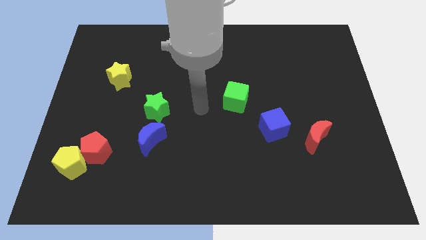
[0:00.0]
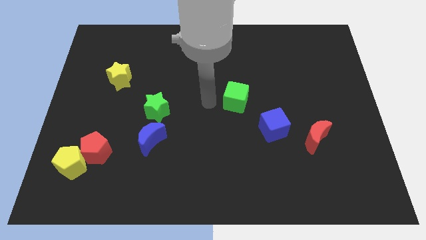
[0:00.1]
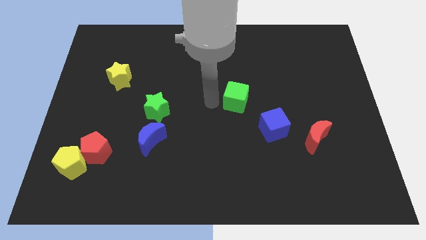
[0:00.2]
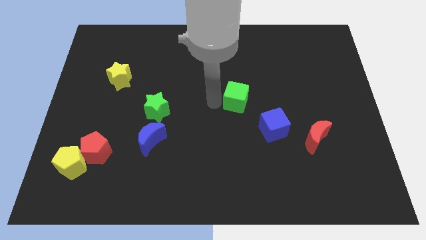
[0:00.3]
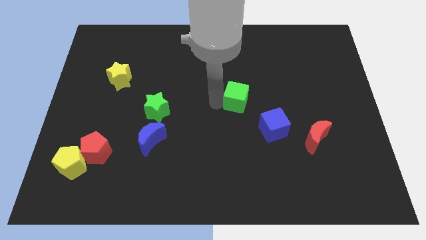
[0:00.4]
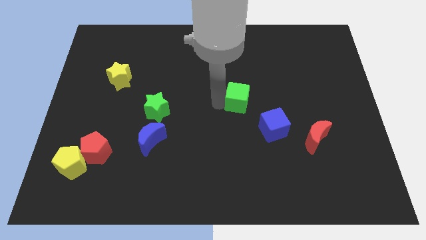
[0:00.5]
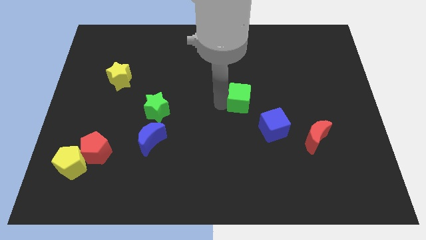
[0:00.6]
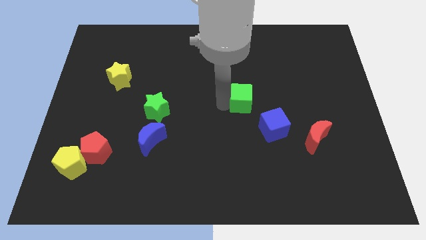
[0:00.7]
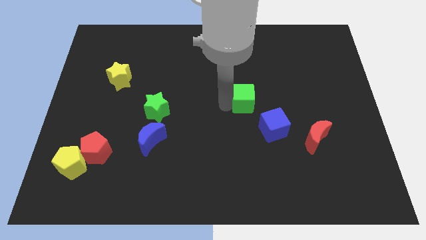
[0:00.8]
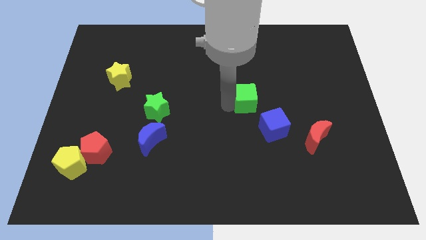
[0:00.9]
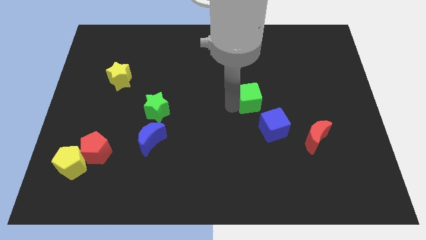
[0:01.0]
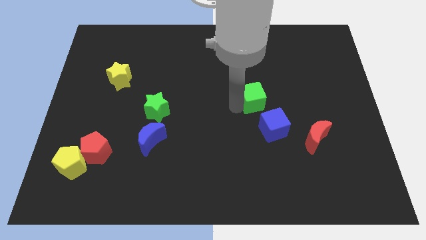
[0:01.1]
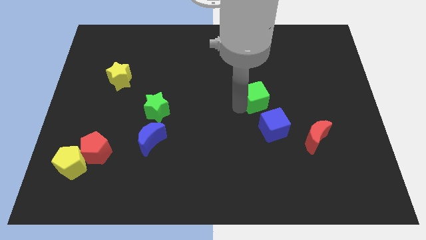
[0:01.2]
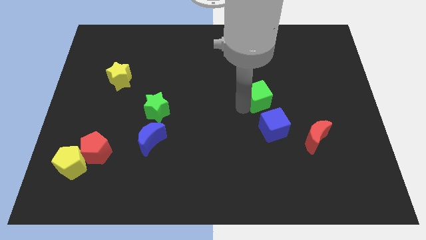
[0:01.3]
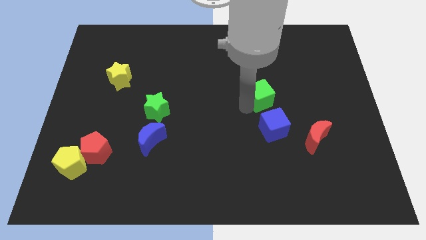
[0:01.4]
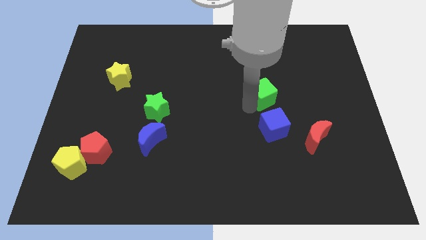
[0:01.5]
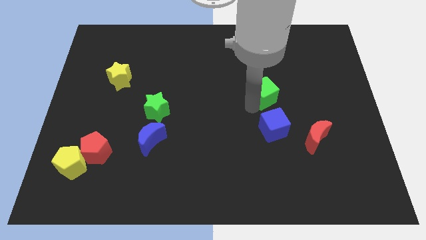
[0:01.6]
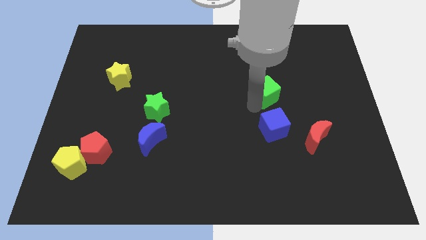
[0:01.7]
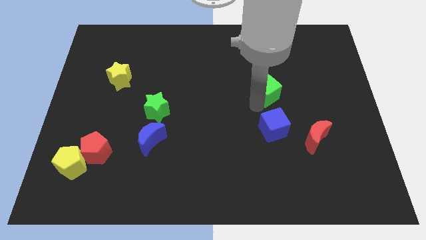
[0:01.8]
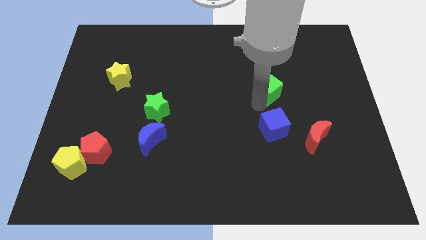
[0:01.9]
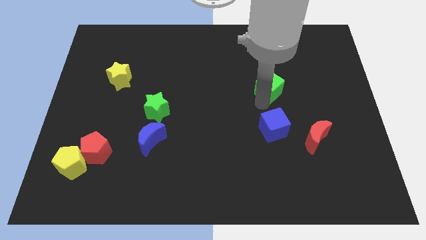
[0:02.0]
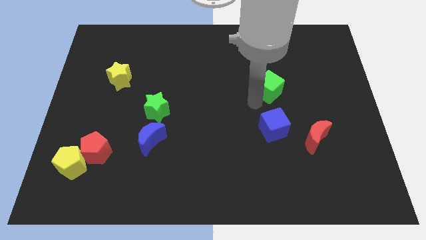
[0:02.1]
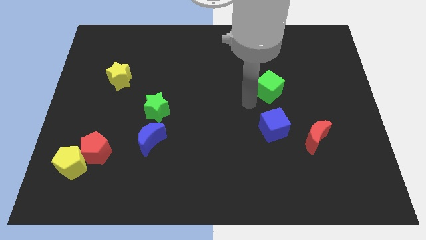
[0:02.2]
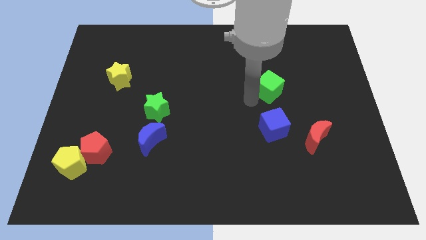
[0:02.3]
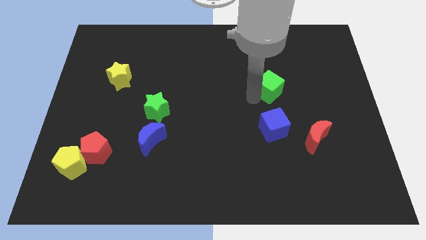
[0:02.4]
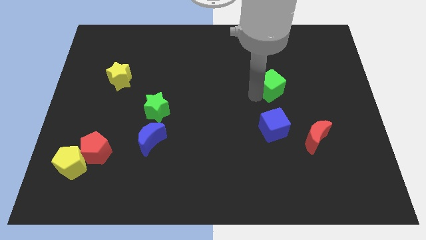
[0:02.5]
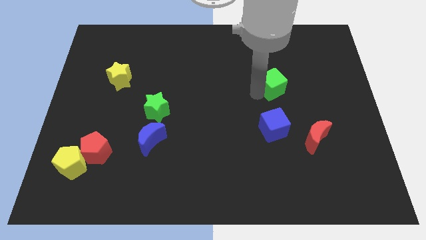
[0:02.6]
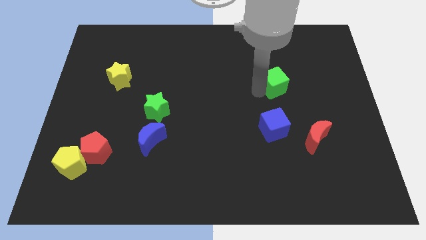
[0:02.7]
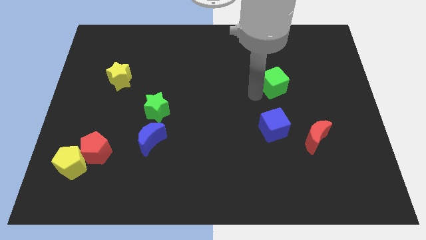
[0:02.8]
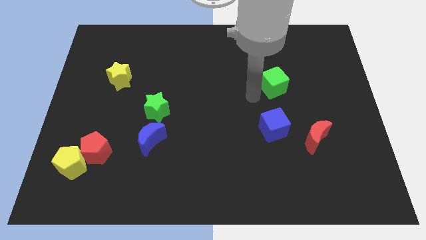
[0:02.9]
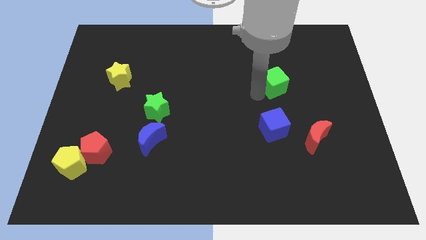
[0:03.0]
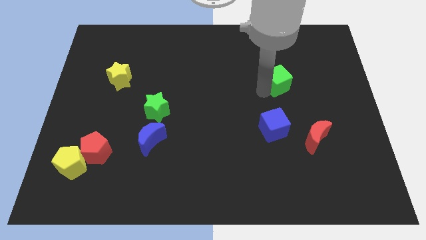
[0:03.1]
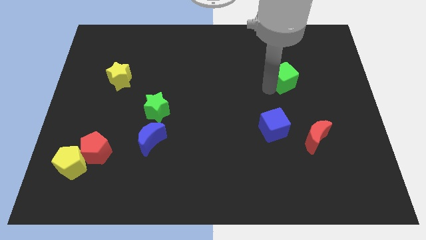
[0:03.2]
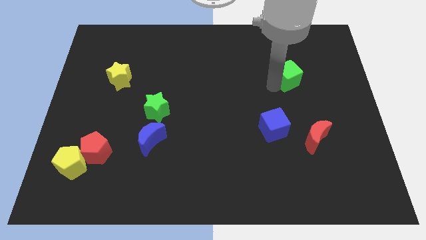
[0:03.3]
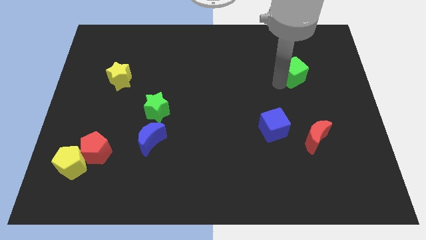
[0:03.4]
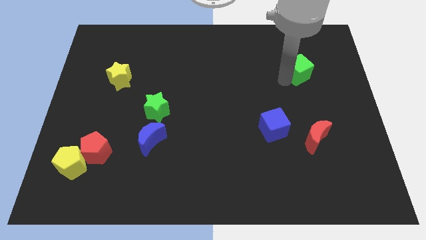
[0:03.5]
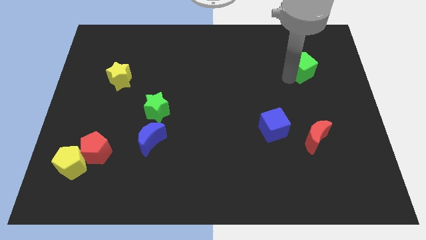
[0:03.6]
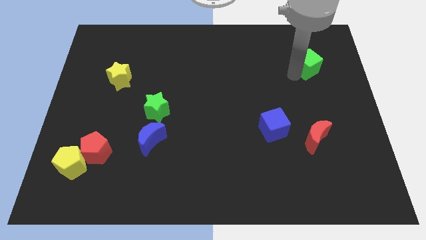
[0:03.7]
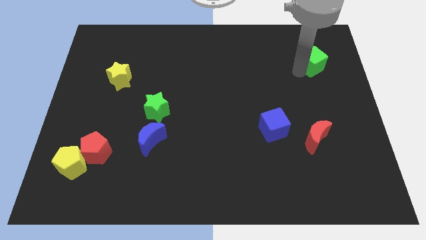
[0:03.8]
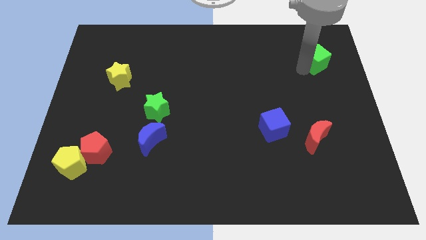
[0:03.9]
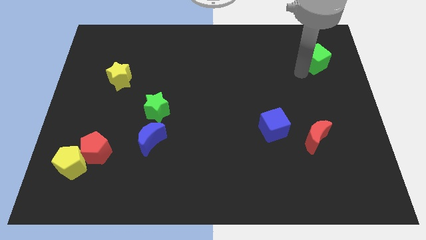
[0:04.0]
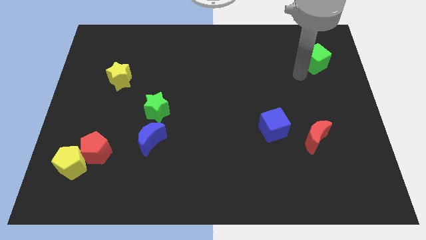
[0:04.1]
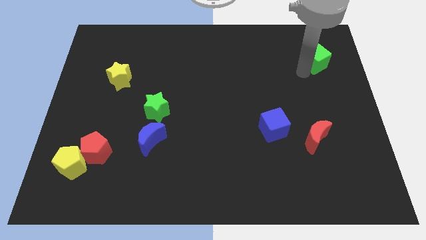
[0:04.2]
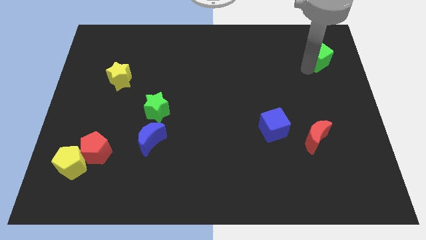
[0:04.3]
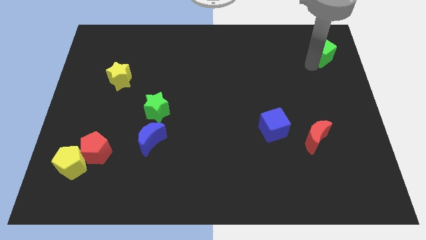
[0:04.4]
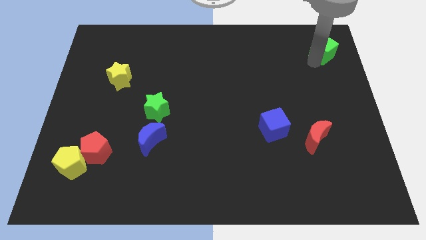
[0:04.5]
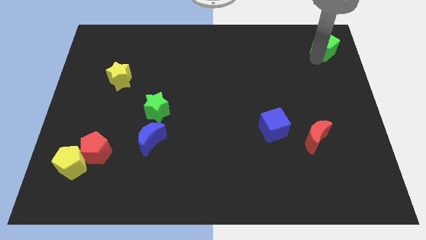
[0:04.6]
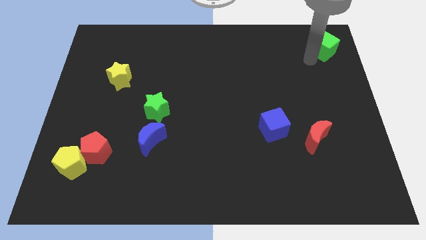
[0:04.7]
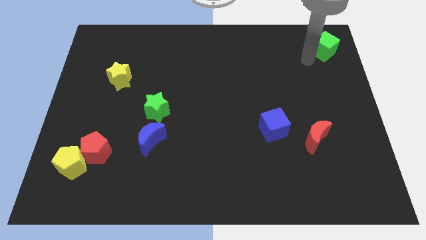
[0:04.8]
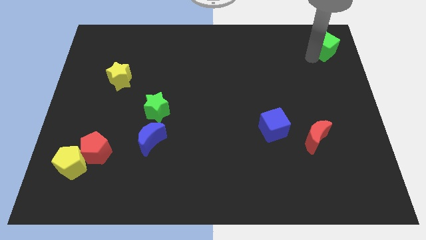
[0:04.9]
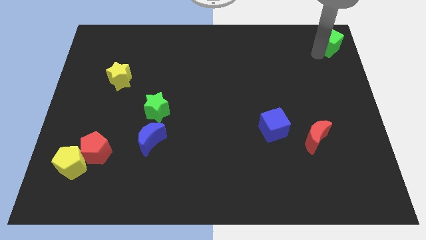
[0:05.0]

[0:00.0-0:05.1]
slide the green cube to the top right corner

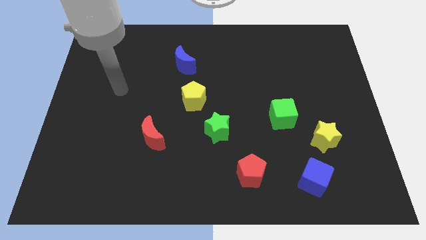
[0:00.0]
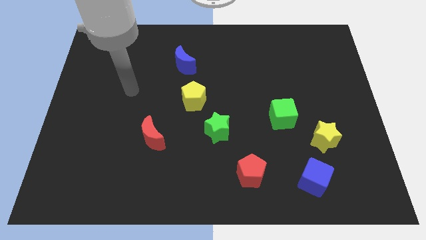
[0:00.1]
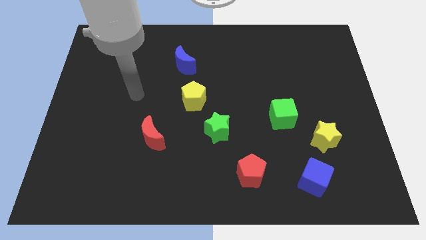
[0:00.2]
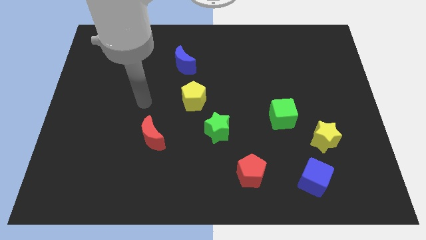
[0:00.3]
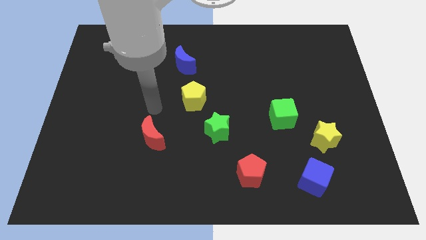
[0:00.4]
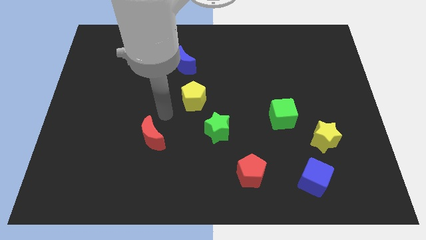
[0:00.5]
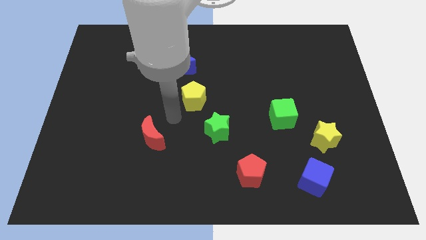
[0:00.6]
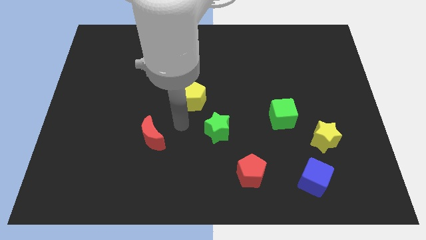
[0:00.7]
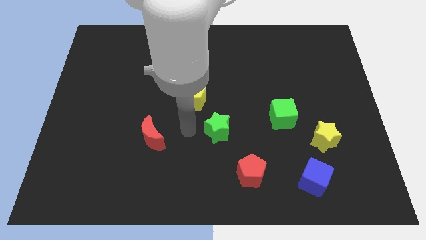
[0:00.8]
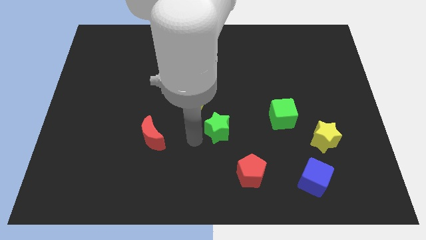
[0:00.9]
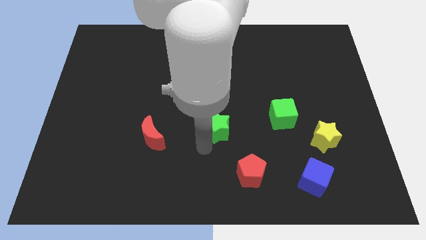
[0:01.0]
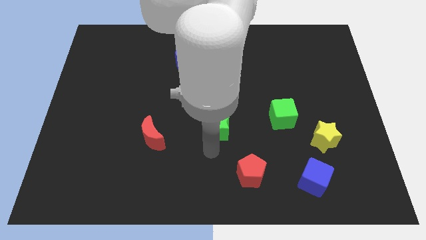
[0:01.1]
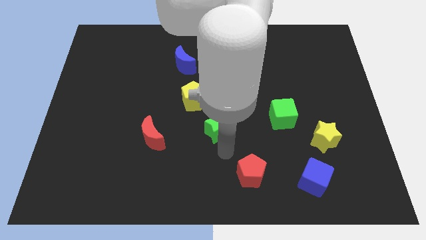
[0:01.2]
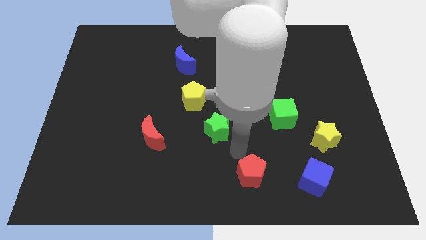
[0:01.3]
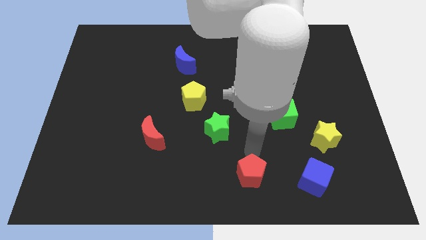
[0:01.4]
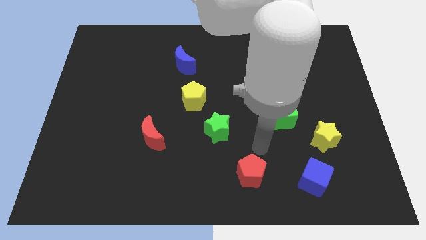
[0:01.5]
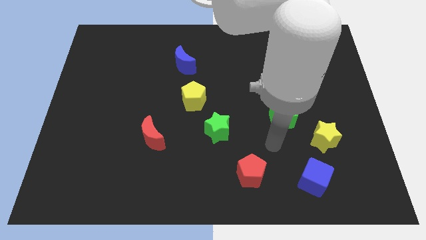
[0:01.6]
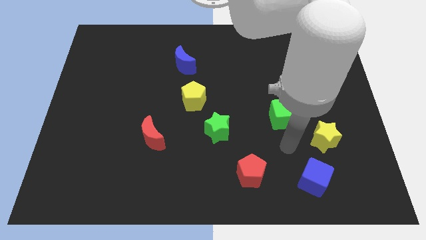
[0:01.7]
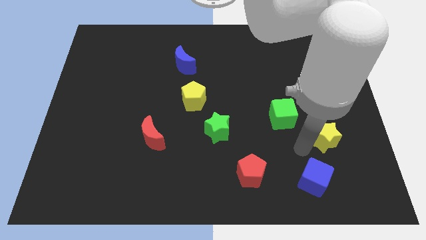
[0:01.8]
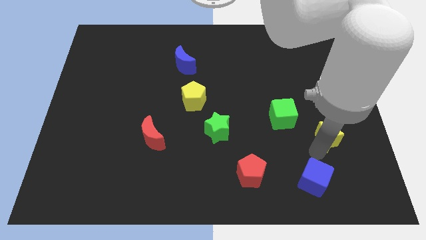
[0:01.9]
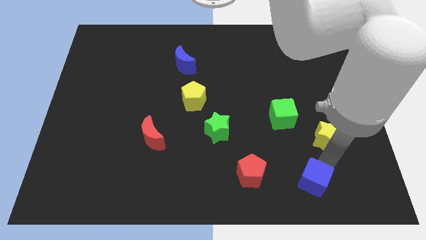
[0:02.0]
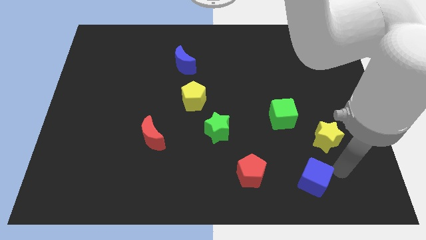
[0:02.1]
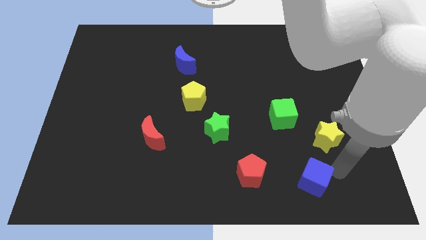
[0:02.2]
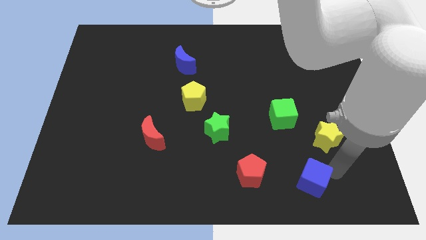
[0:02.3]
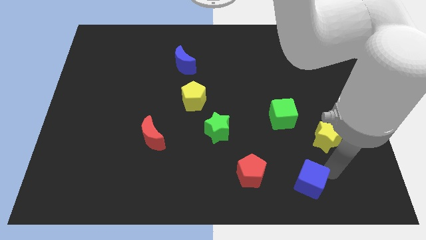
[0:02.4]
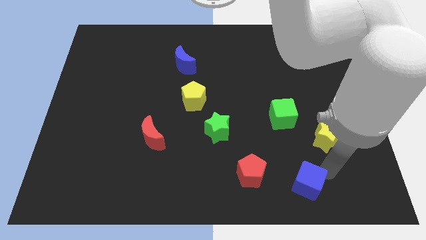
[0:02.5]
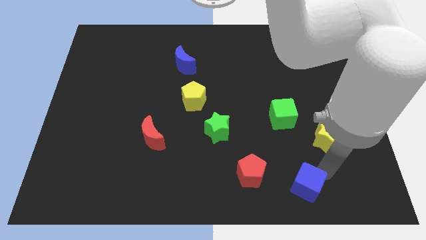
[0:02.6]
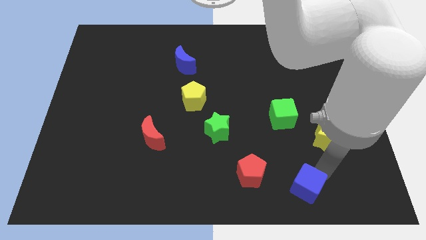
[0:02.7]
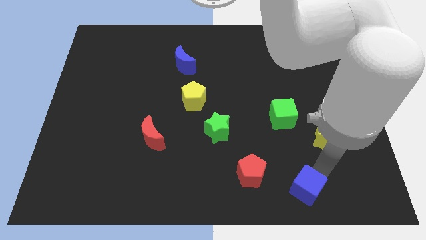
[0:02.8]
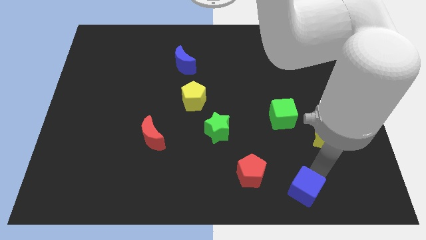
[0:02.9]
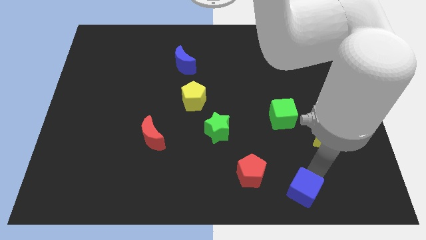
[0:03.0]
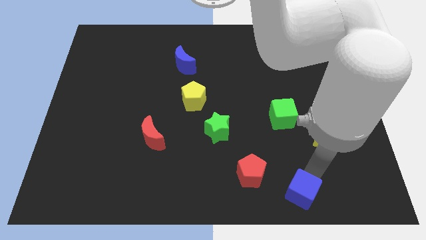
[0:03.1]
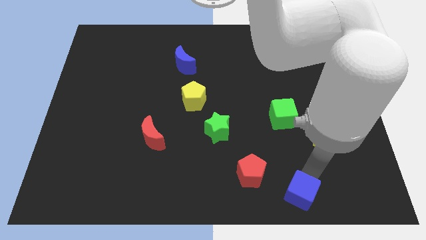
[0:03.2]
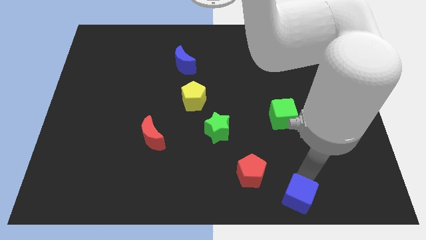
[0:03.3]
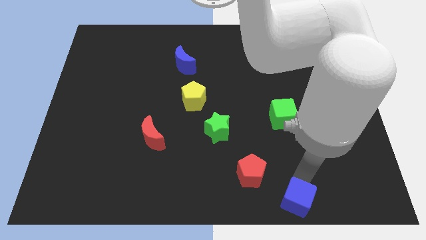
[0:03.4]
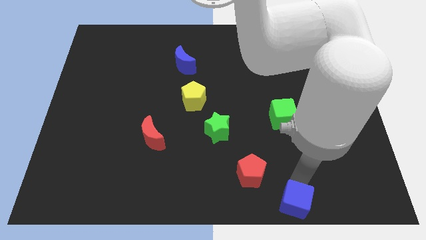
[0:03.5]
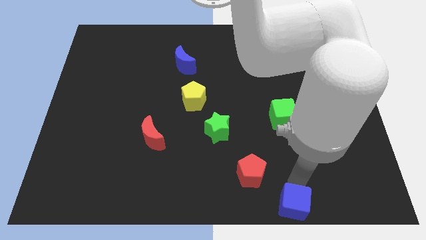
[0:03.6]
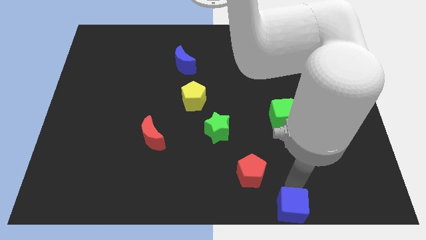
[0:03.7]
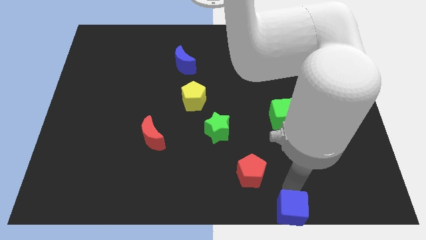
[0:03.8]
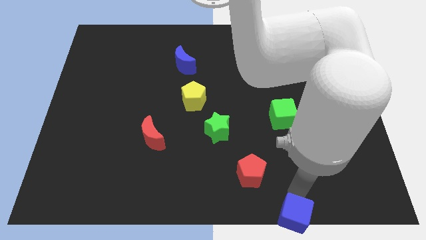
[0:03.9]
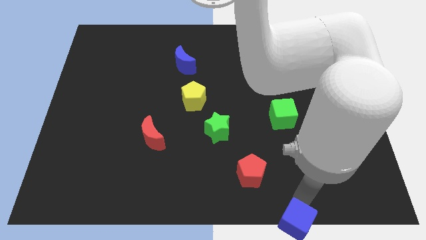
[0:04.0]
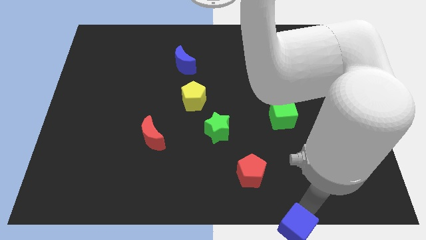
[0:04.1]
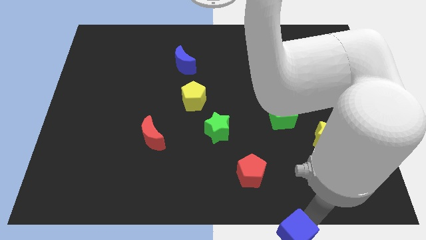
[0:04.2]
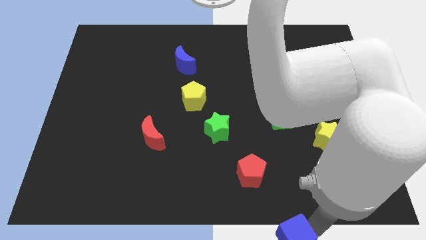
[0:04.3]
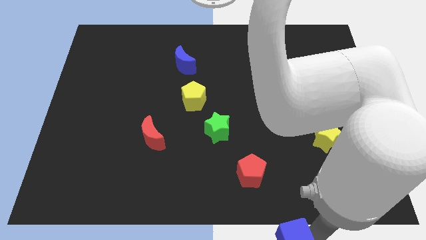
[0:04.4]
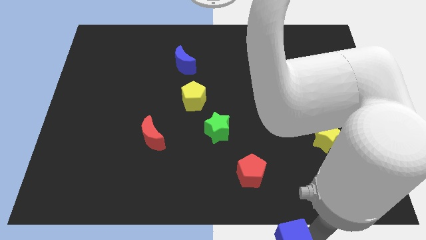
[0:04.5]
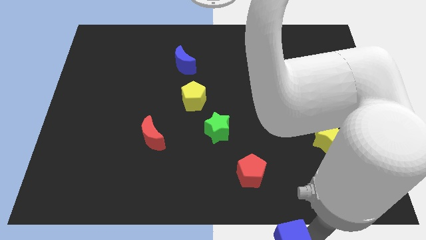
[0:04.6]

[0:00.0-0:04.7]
push the blue cube to the bottom
